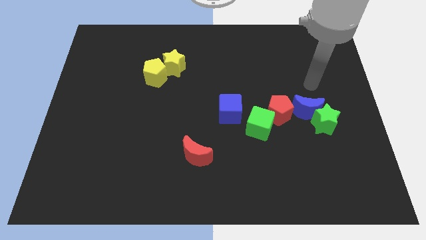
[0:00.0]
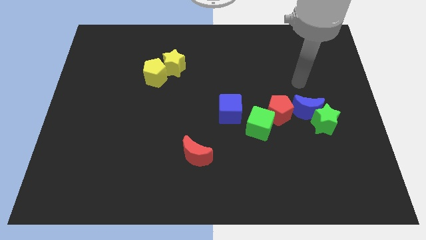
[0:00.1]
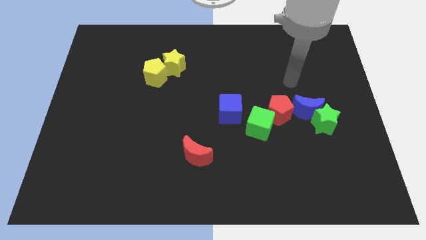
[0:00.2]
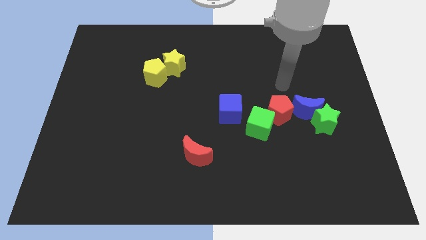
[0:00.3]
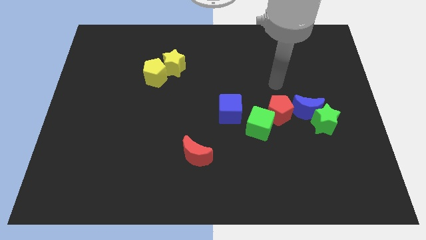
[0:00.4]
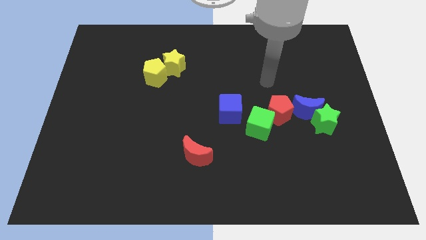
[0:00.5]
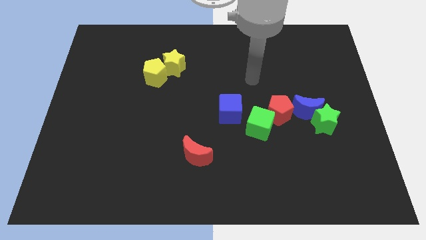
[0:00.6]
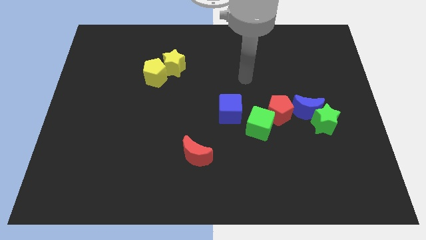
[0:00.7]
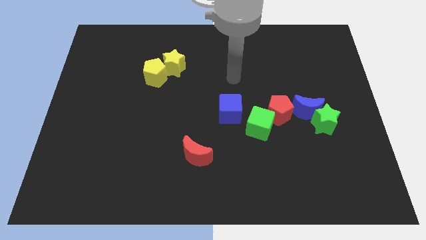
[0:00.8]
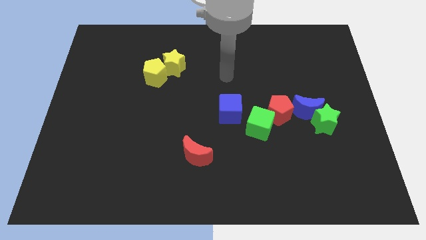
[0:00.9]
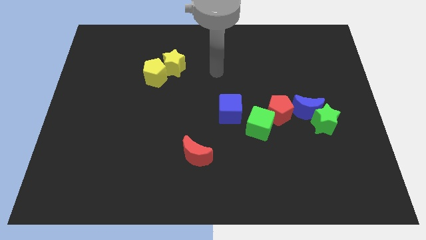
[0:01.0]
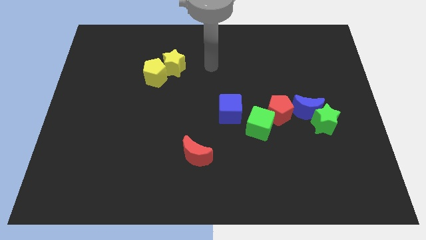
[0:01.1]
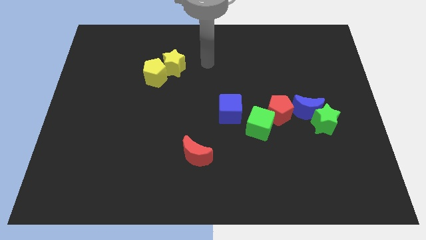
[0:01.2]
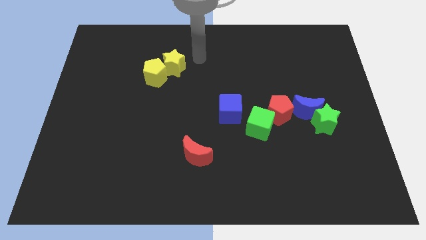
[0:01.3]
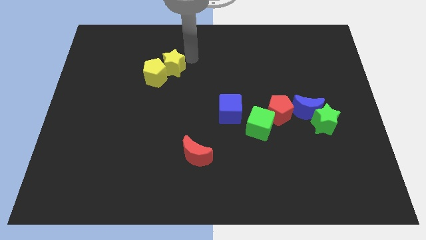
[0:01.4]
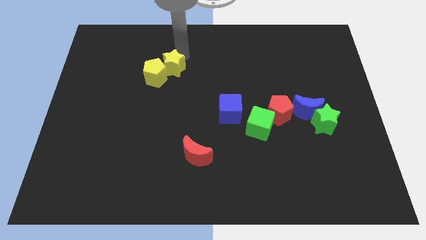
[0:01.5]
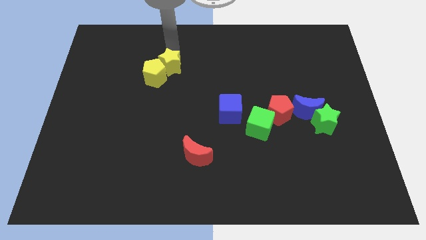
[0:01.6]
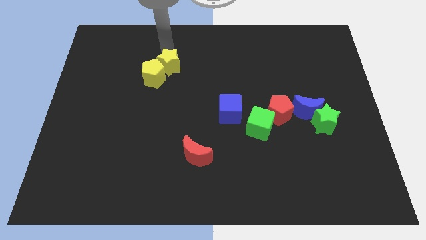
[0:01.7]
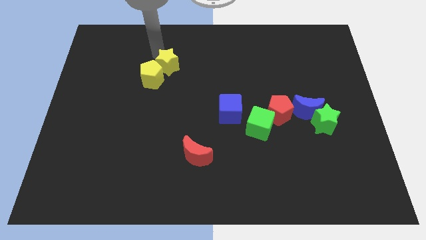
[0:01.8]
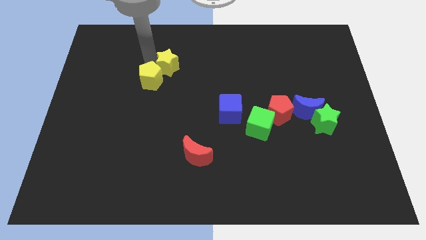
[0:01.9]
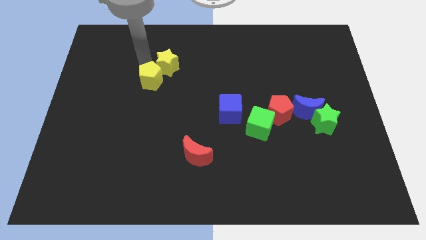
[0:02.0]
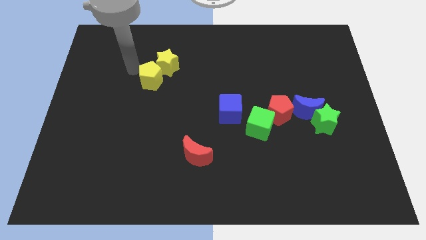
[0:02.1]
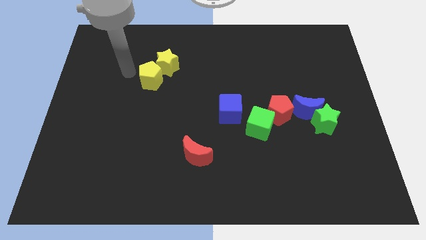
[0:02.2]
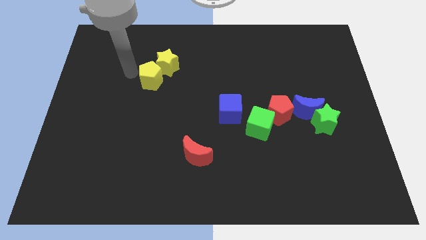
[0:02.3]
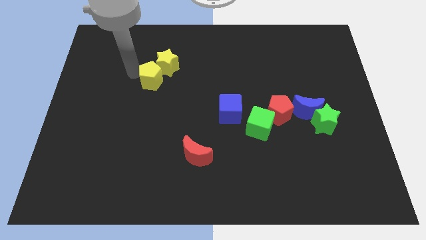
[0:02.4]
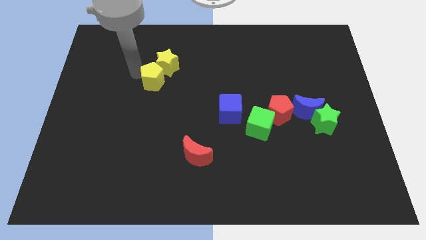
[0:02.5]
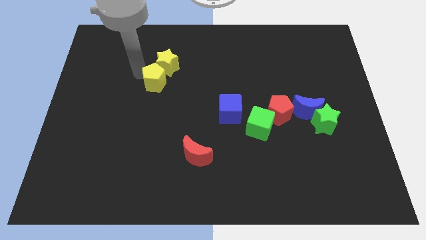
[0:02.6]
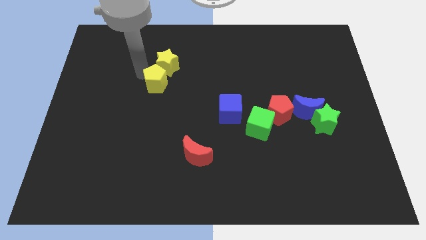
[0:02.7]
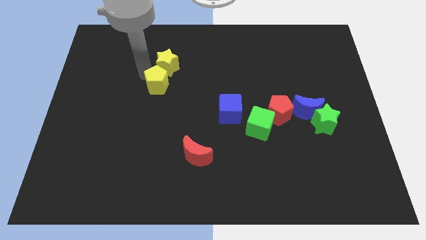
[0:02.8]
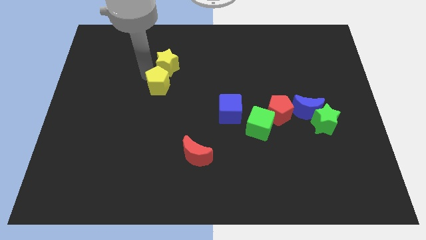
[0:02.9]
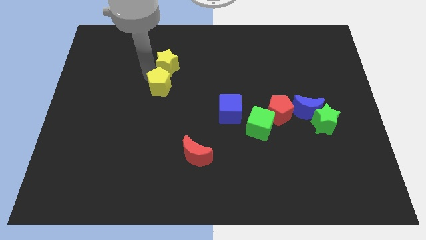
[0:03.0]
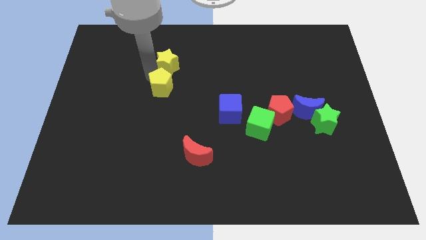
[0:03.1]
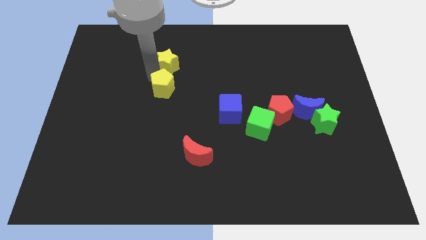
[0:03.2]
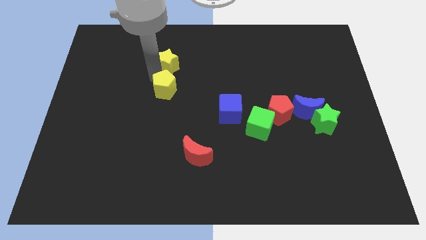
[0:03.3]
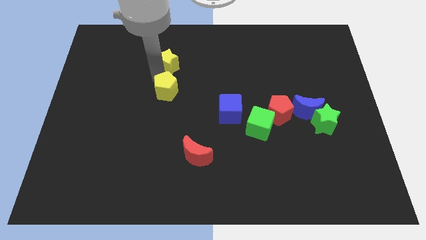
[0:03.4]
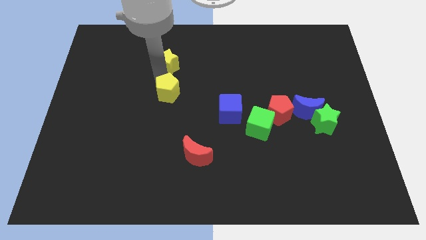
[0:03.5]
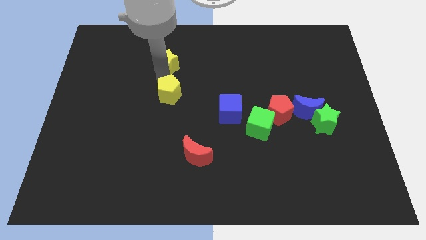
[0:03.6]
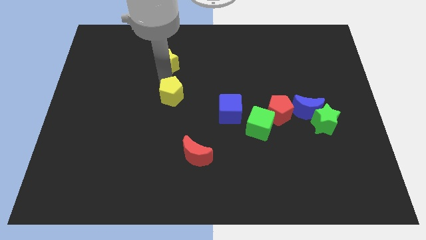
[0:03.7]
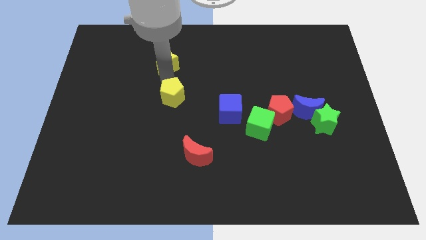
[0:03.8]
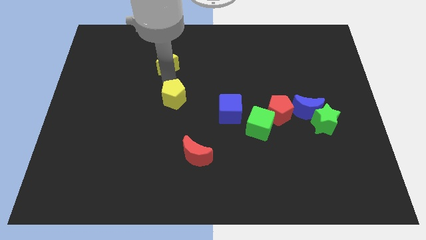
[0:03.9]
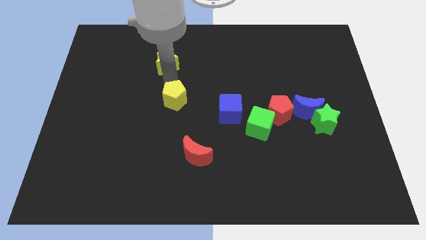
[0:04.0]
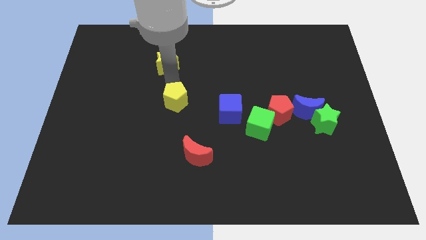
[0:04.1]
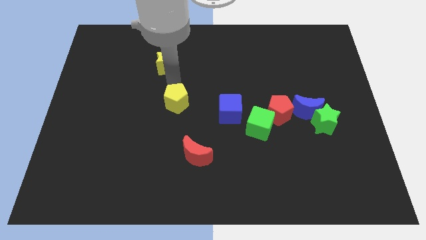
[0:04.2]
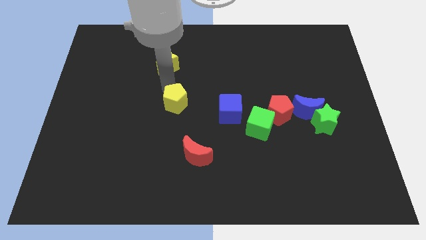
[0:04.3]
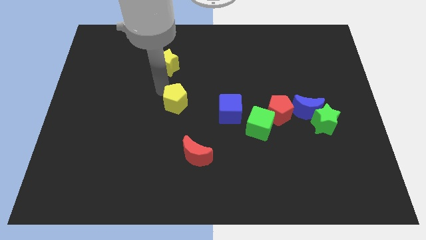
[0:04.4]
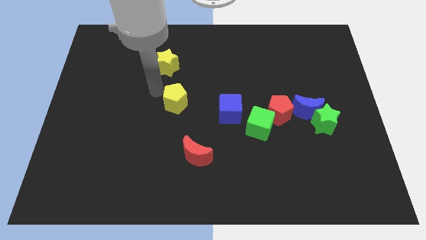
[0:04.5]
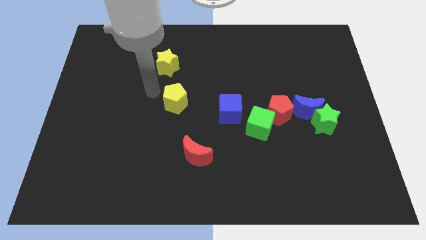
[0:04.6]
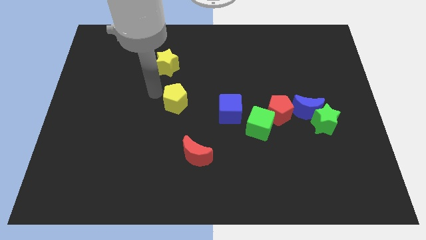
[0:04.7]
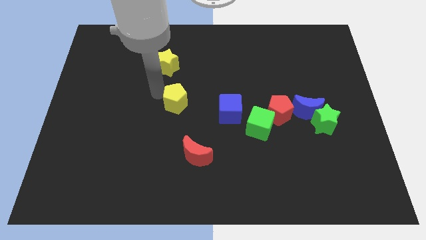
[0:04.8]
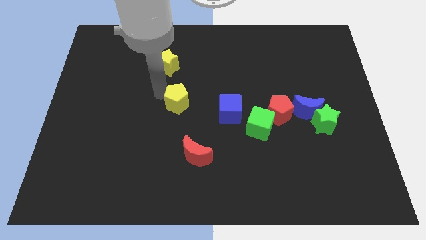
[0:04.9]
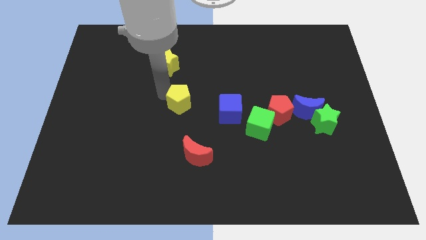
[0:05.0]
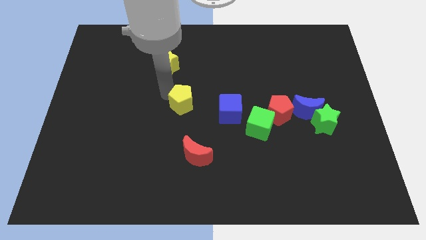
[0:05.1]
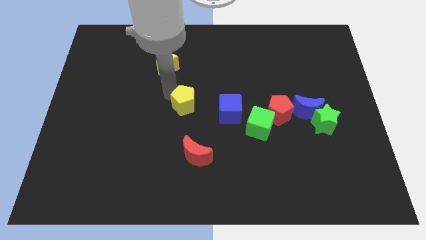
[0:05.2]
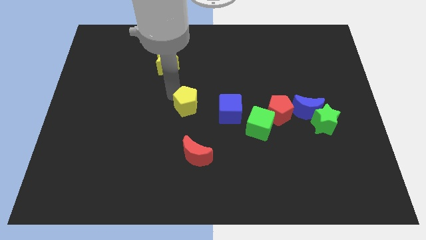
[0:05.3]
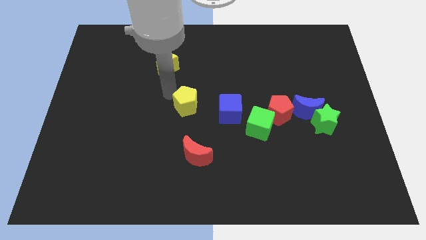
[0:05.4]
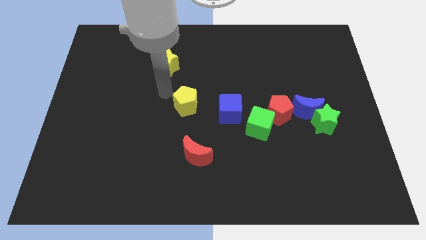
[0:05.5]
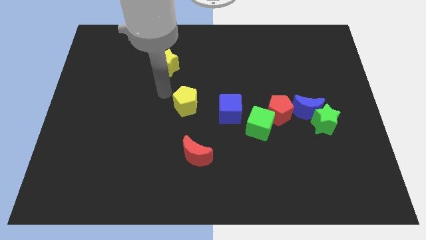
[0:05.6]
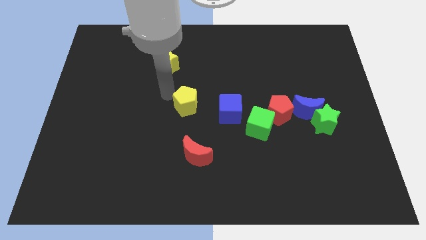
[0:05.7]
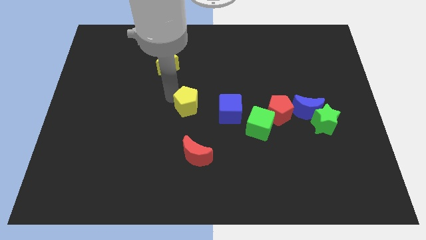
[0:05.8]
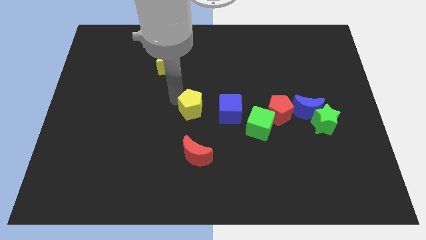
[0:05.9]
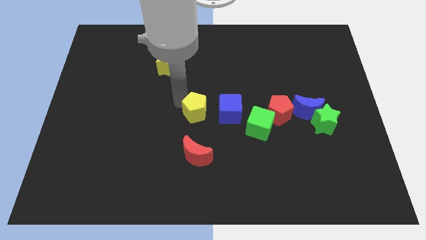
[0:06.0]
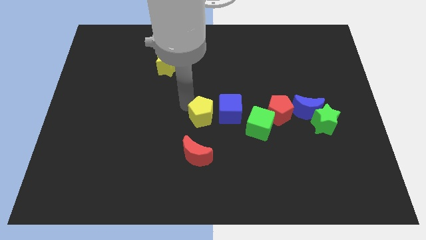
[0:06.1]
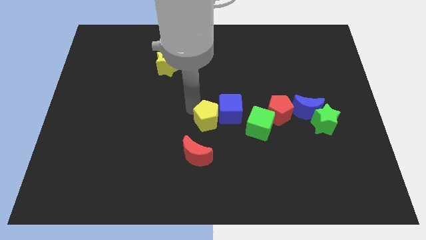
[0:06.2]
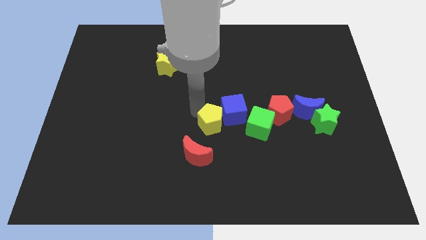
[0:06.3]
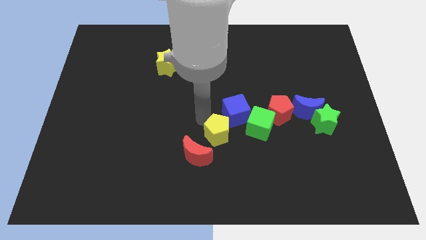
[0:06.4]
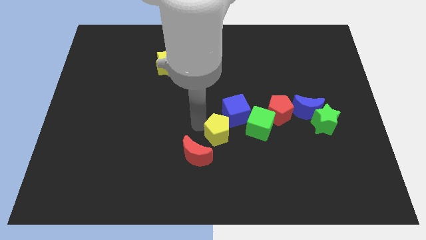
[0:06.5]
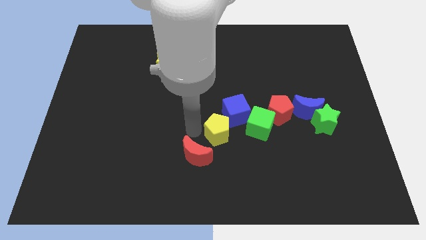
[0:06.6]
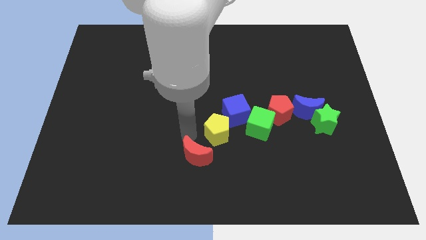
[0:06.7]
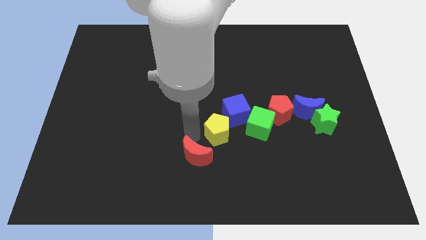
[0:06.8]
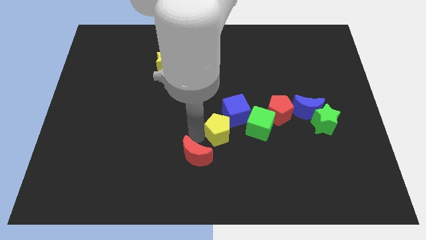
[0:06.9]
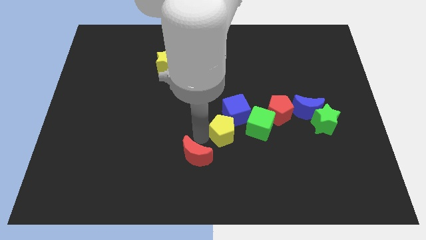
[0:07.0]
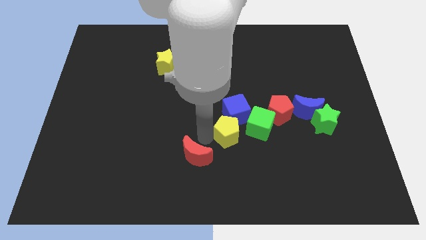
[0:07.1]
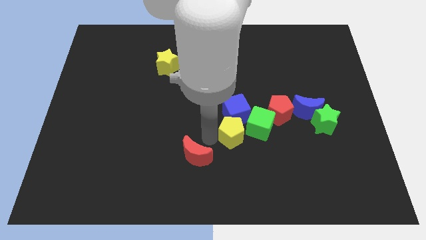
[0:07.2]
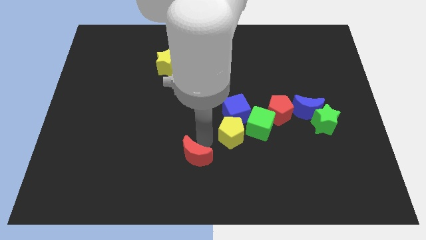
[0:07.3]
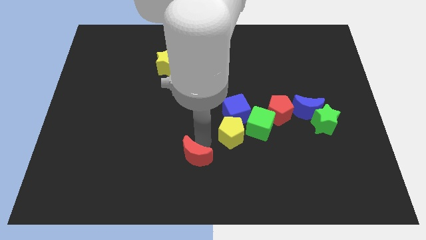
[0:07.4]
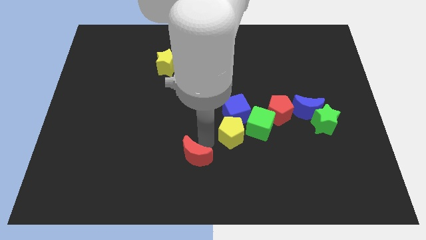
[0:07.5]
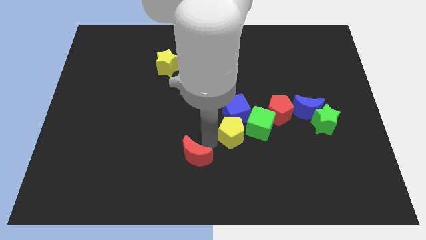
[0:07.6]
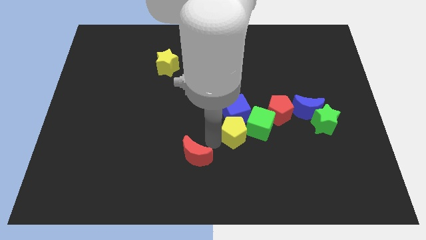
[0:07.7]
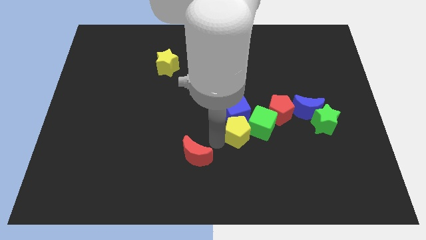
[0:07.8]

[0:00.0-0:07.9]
slide the yellow pentagon towards the green cube
